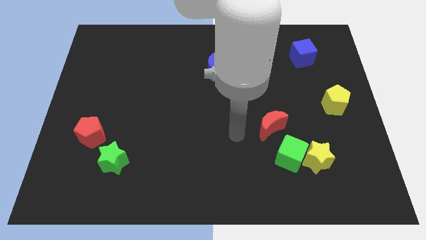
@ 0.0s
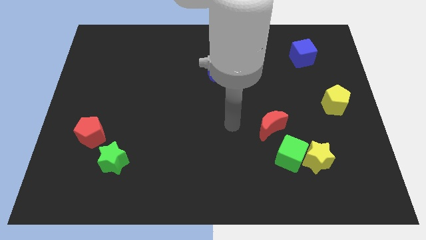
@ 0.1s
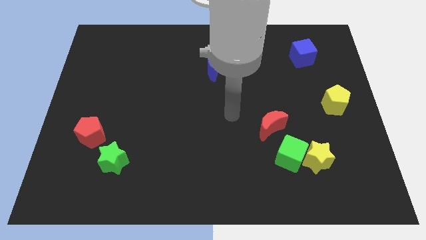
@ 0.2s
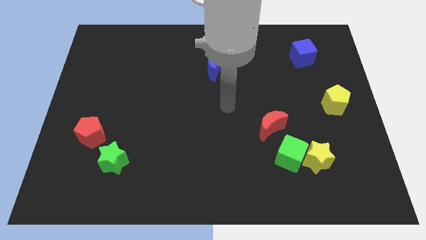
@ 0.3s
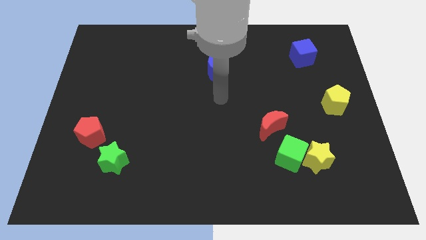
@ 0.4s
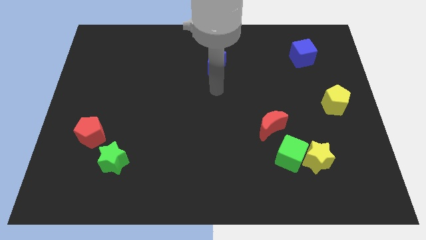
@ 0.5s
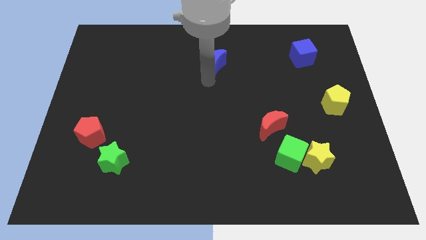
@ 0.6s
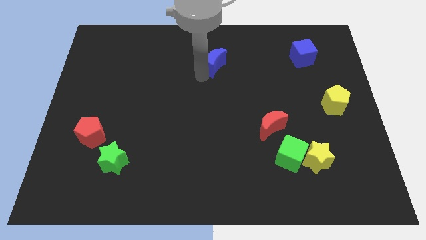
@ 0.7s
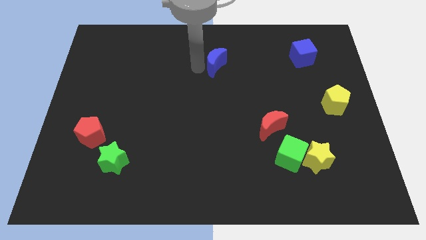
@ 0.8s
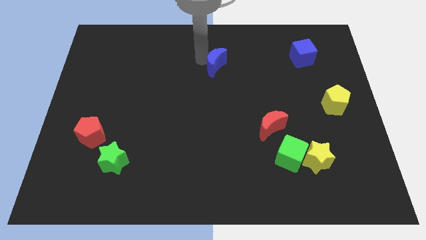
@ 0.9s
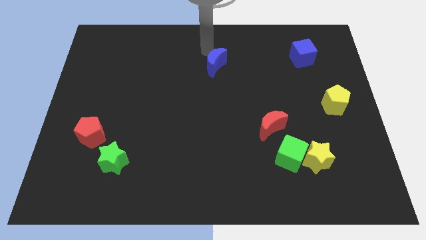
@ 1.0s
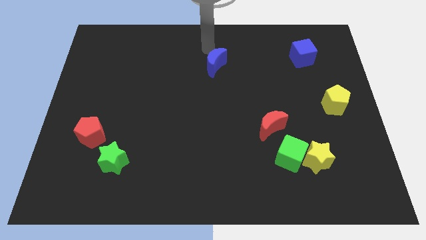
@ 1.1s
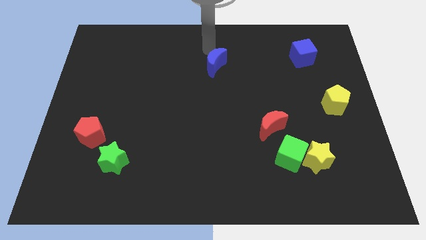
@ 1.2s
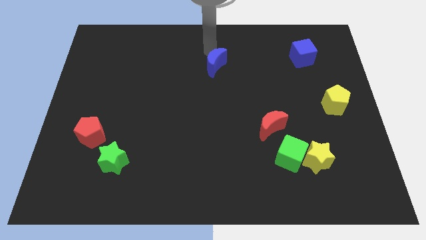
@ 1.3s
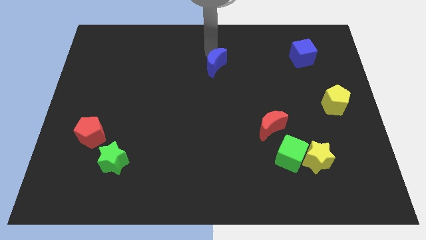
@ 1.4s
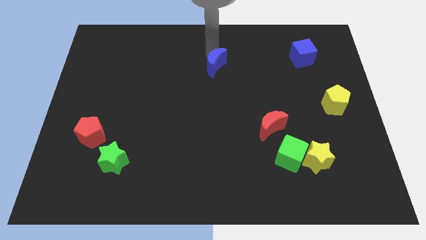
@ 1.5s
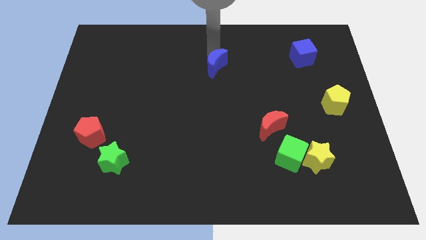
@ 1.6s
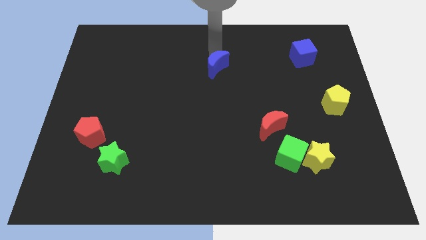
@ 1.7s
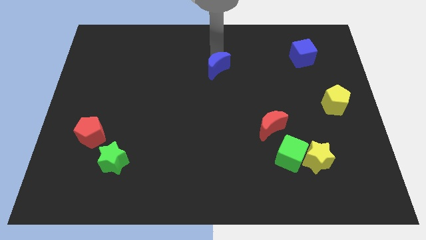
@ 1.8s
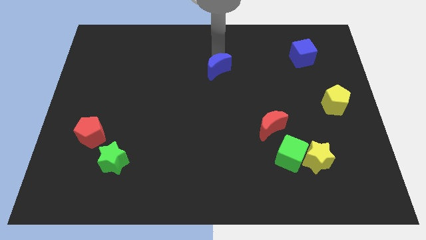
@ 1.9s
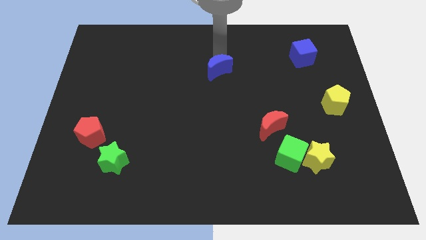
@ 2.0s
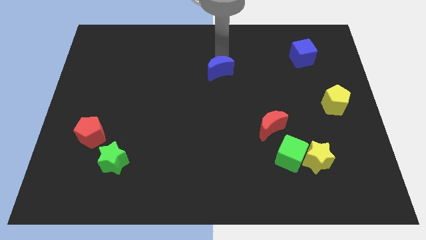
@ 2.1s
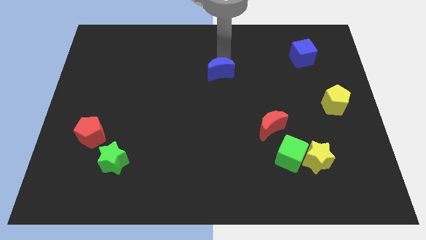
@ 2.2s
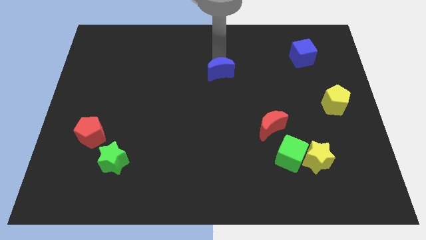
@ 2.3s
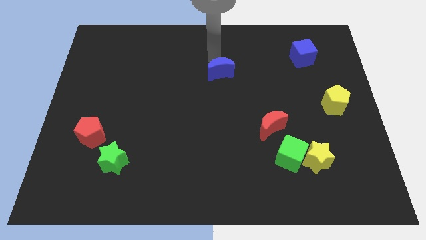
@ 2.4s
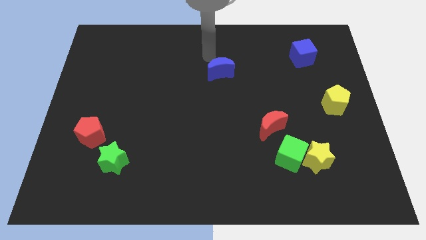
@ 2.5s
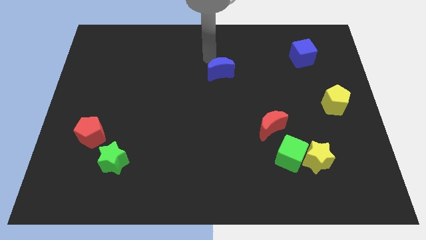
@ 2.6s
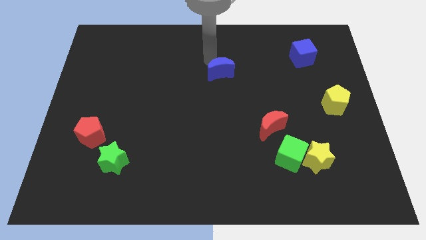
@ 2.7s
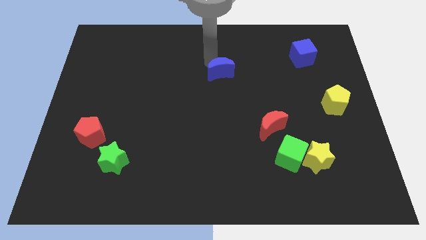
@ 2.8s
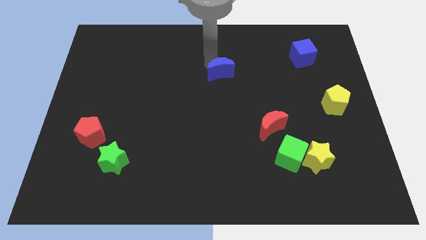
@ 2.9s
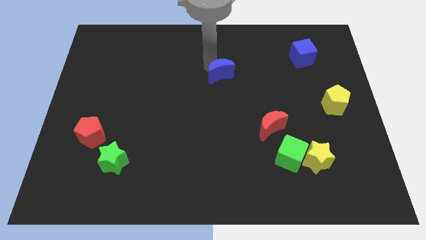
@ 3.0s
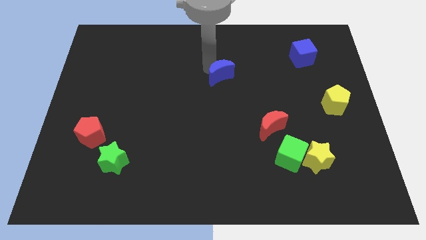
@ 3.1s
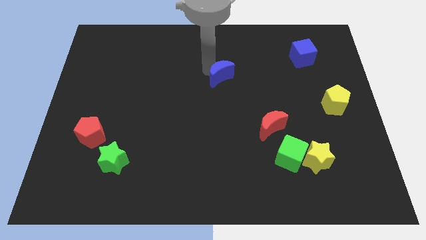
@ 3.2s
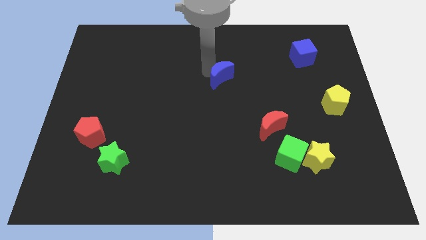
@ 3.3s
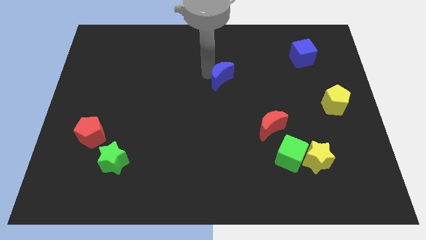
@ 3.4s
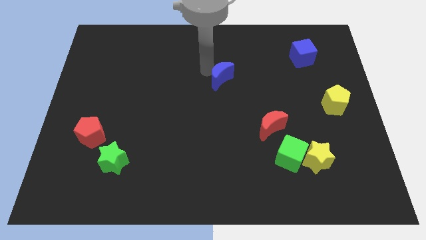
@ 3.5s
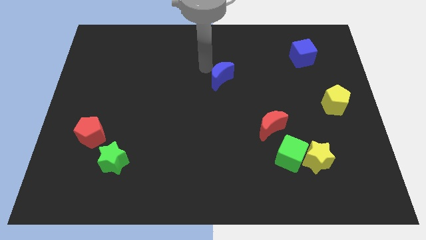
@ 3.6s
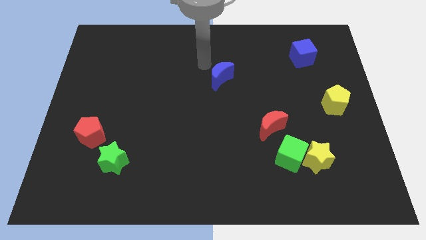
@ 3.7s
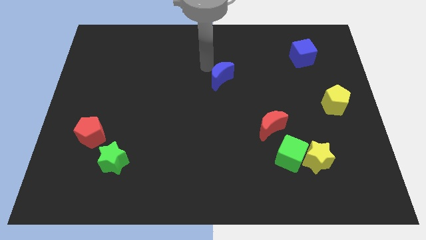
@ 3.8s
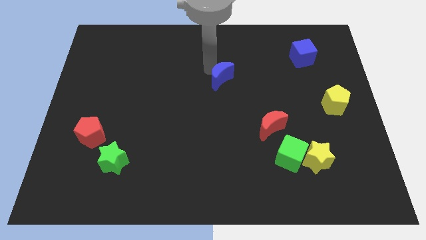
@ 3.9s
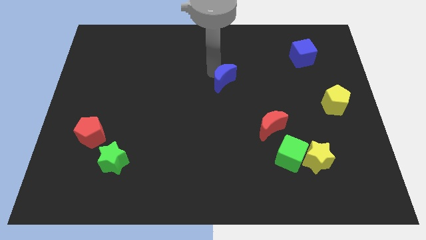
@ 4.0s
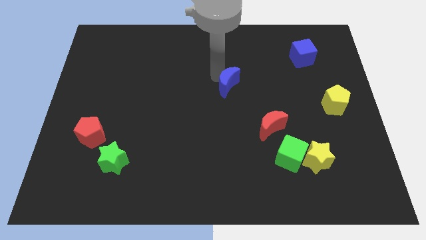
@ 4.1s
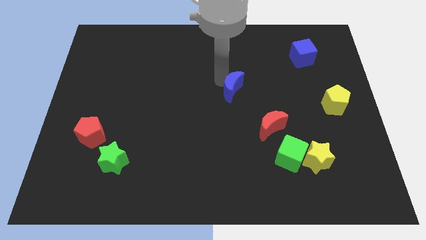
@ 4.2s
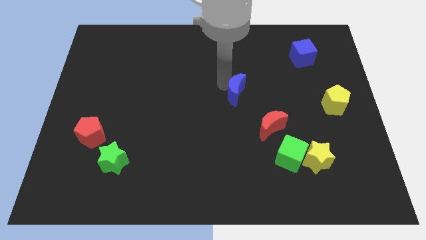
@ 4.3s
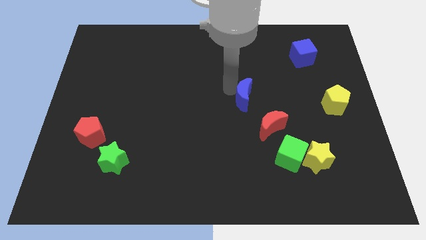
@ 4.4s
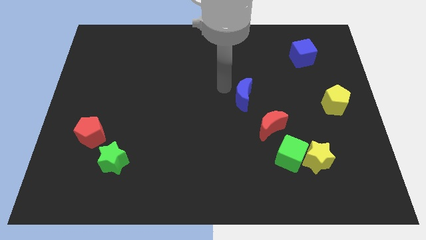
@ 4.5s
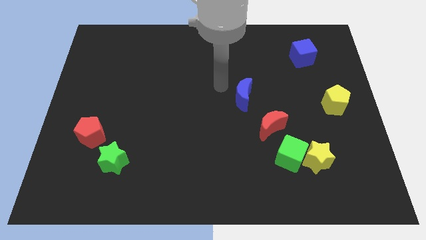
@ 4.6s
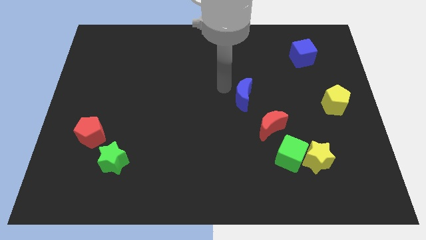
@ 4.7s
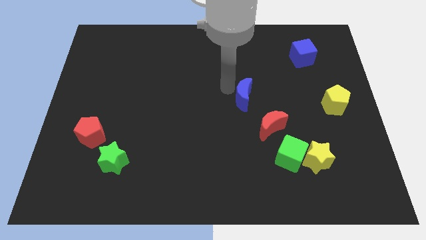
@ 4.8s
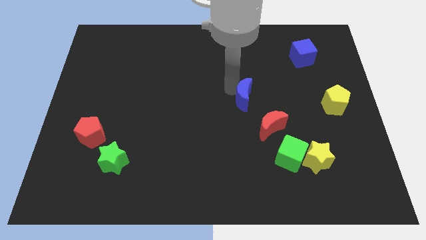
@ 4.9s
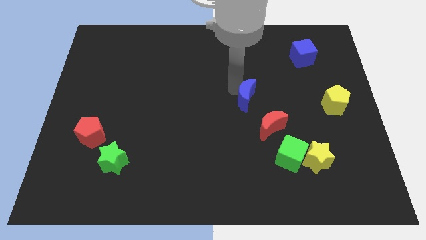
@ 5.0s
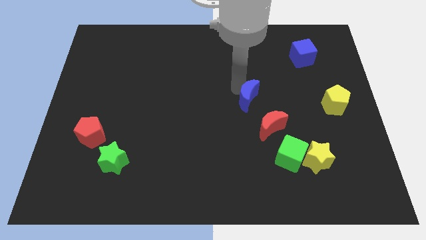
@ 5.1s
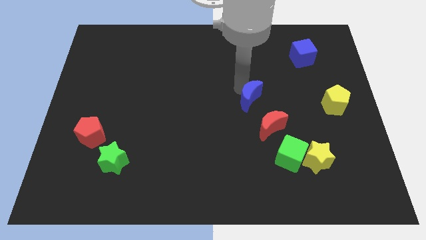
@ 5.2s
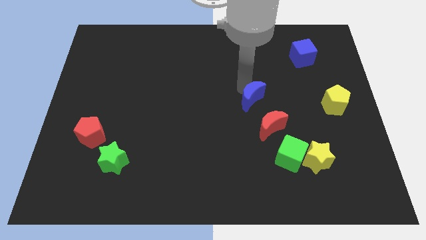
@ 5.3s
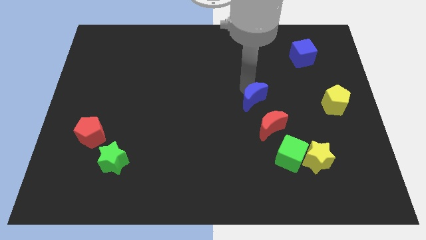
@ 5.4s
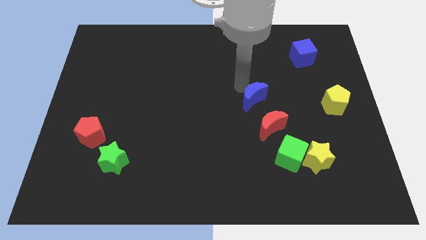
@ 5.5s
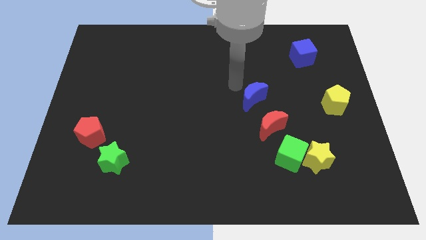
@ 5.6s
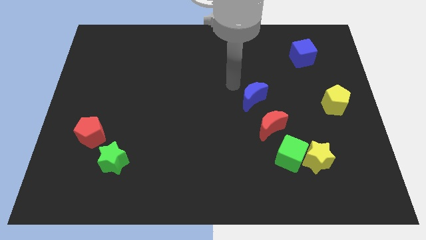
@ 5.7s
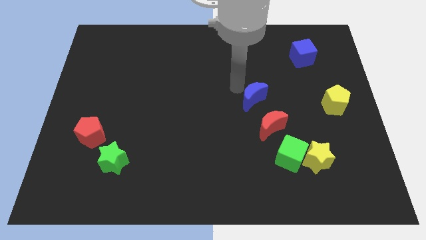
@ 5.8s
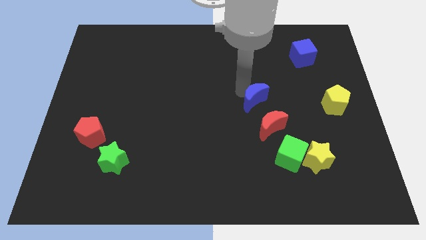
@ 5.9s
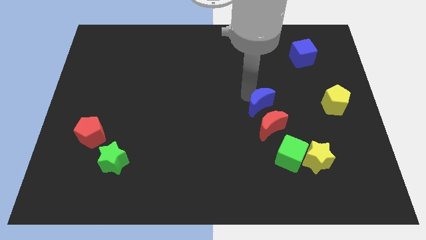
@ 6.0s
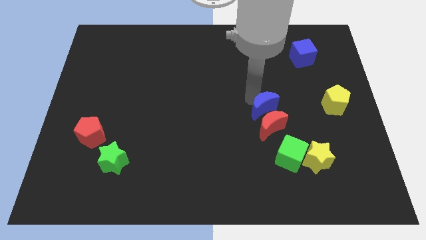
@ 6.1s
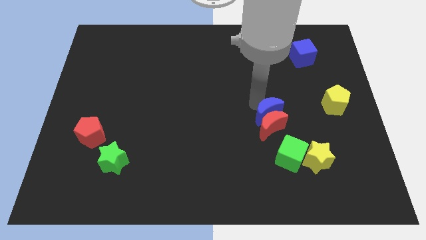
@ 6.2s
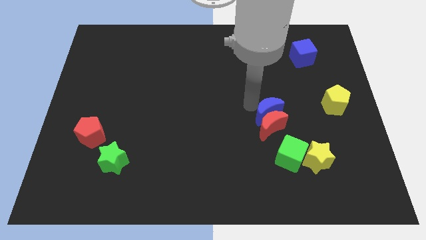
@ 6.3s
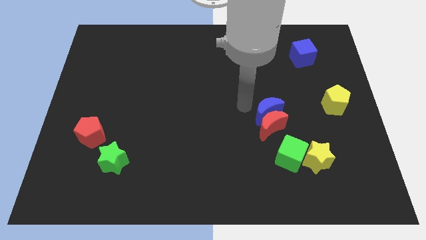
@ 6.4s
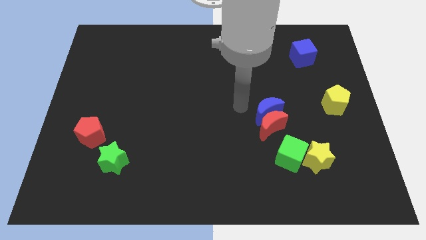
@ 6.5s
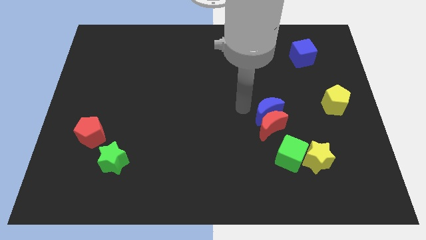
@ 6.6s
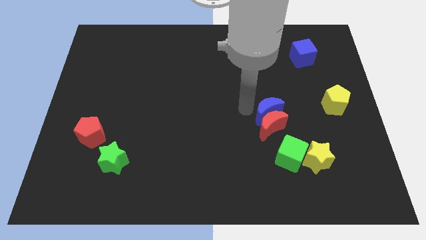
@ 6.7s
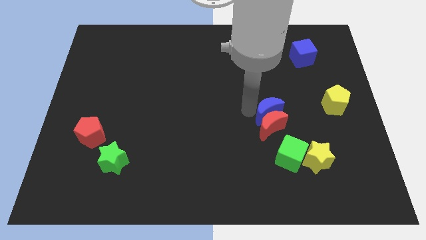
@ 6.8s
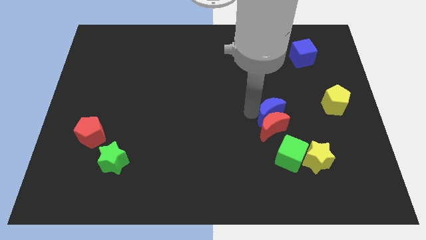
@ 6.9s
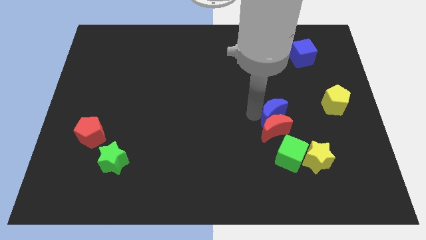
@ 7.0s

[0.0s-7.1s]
push the blue moon downwards and right

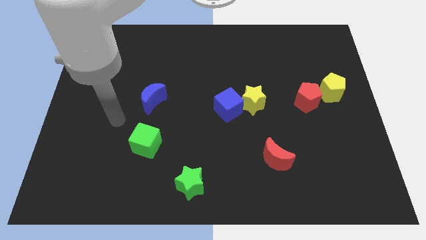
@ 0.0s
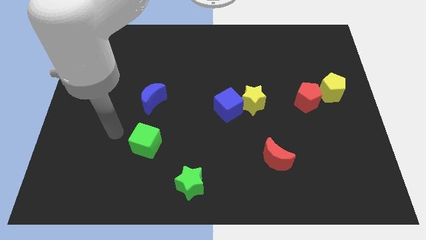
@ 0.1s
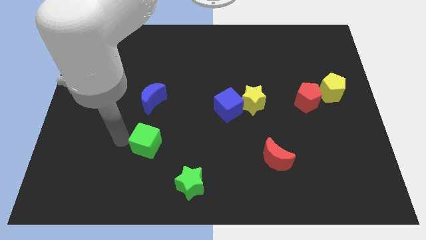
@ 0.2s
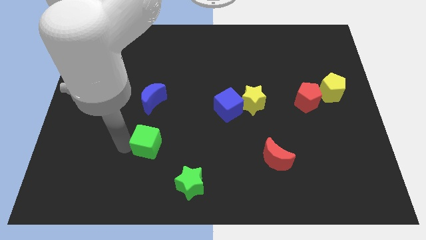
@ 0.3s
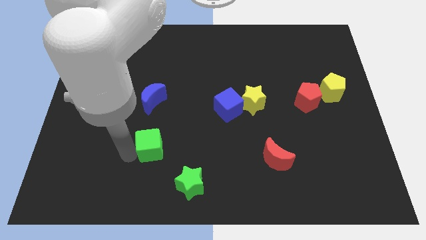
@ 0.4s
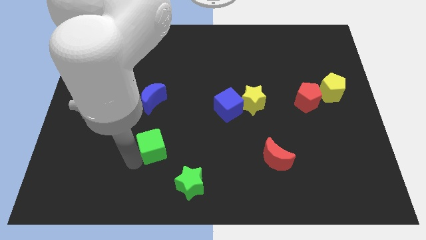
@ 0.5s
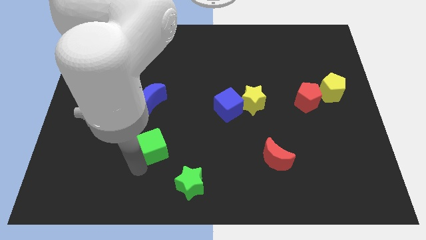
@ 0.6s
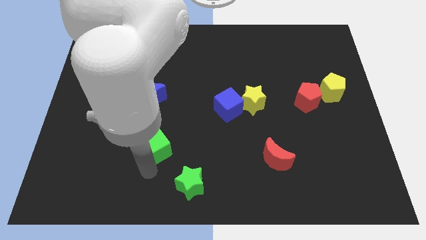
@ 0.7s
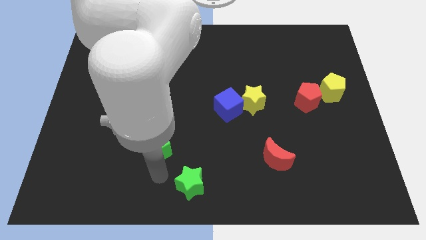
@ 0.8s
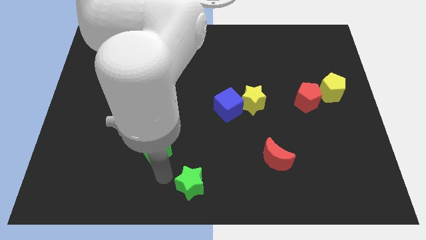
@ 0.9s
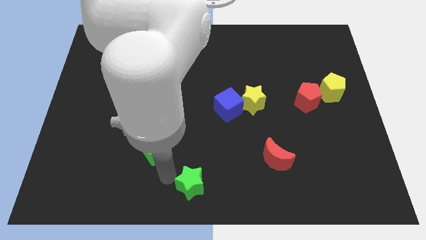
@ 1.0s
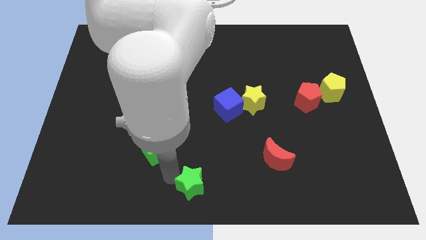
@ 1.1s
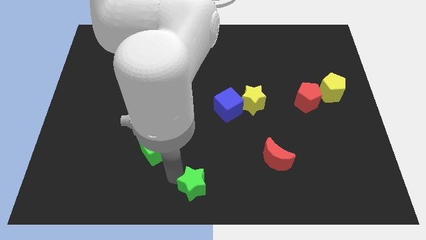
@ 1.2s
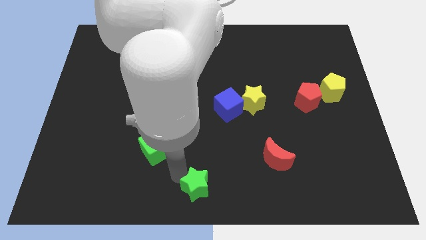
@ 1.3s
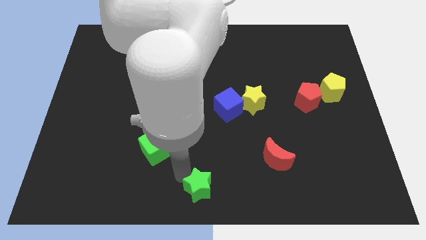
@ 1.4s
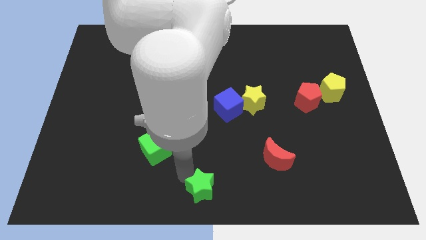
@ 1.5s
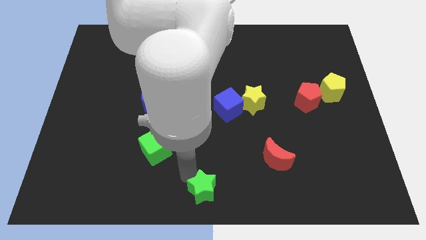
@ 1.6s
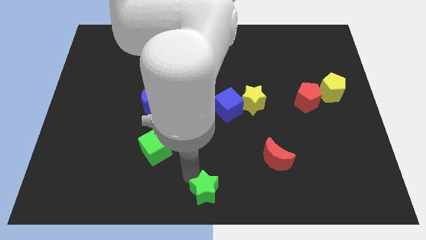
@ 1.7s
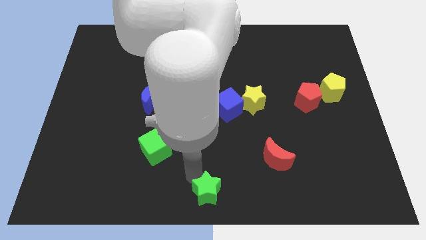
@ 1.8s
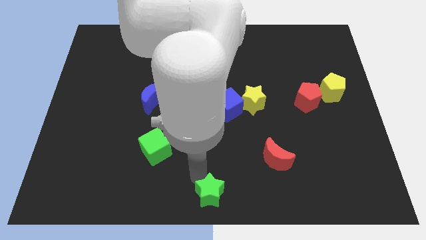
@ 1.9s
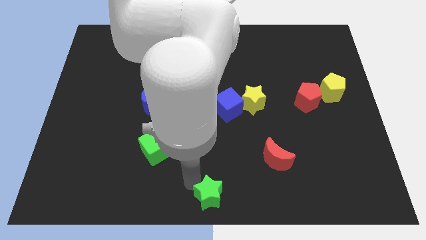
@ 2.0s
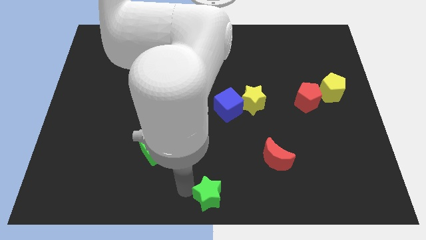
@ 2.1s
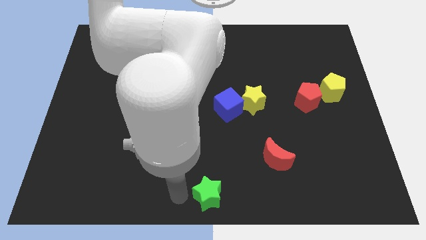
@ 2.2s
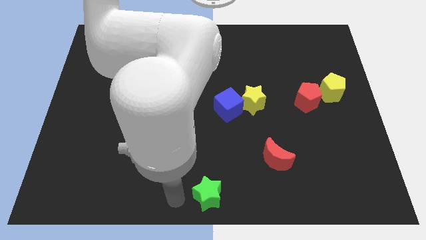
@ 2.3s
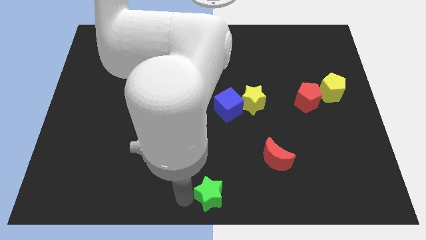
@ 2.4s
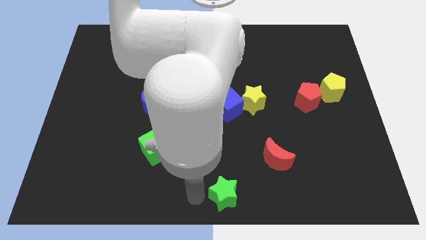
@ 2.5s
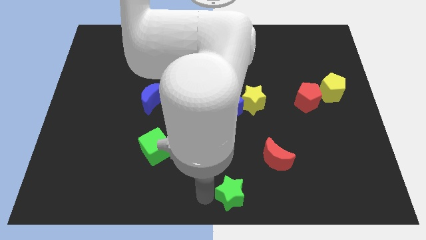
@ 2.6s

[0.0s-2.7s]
move the green star to the right a little
